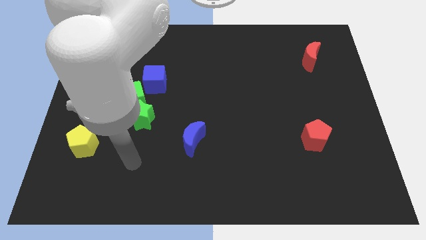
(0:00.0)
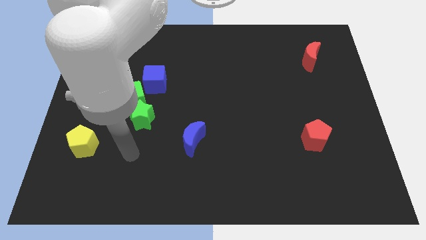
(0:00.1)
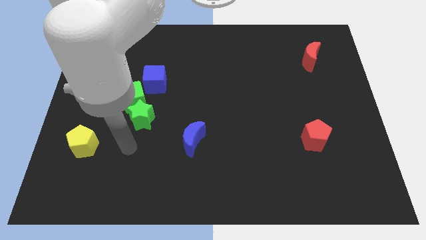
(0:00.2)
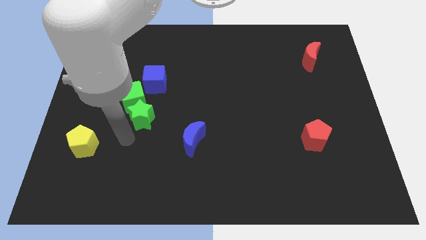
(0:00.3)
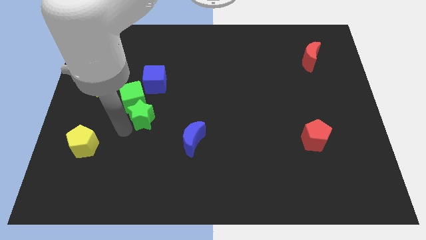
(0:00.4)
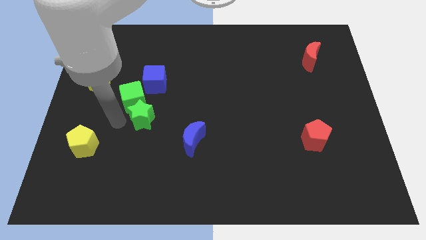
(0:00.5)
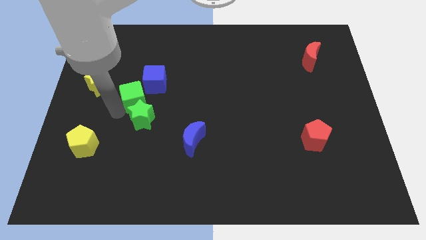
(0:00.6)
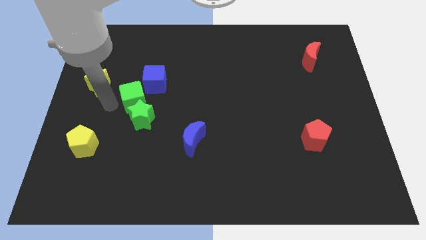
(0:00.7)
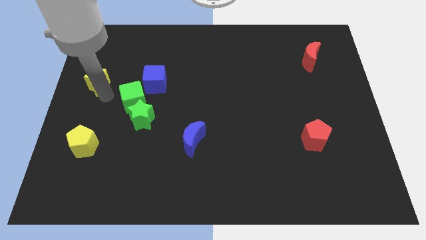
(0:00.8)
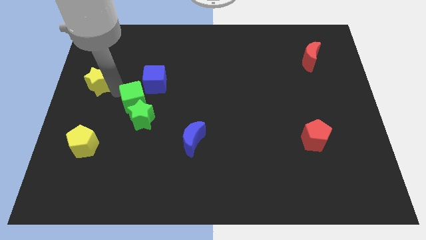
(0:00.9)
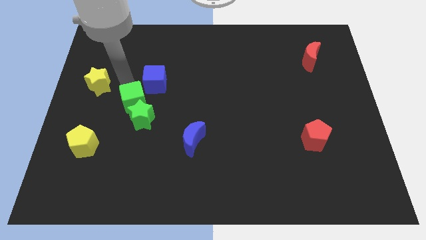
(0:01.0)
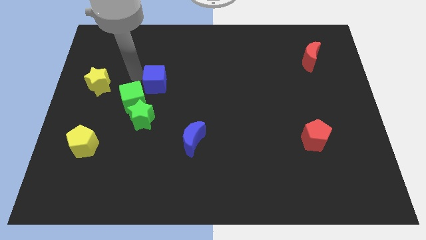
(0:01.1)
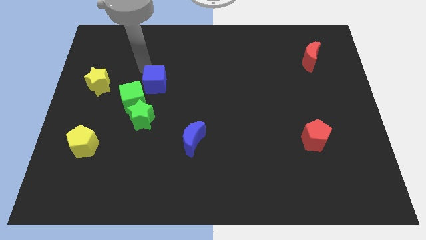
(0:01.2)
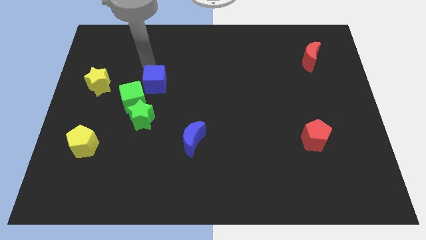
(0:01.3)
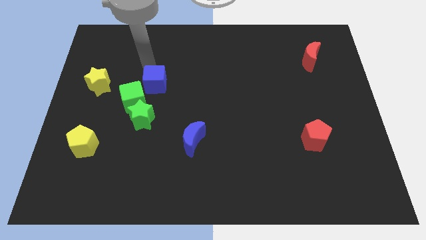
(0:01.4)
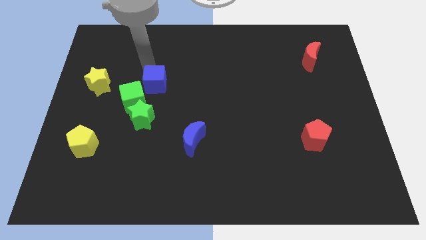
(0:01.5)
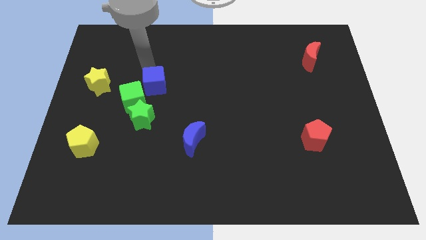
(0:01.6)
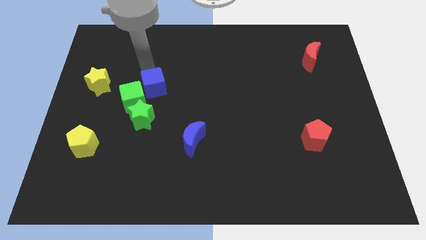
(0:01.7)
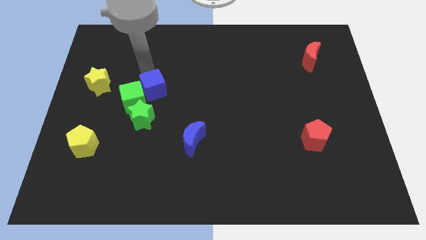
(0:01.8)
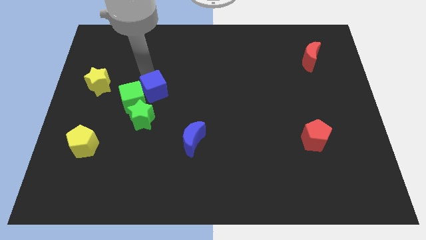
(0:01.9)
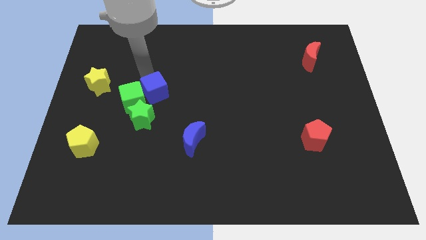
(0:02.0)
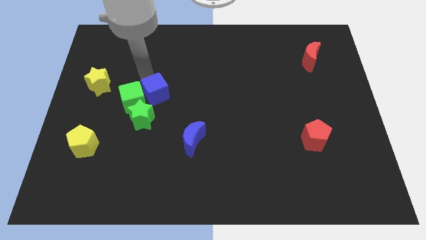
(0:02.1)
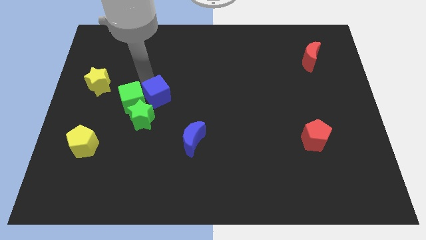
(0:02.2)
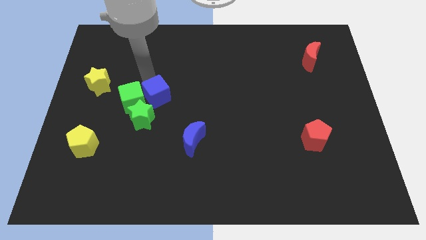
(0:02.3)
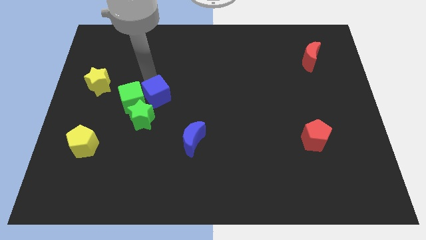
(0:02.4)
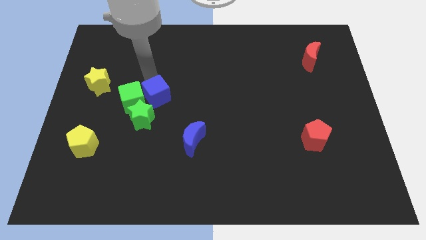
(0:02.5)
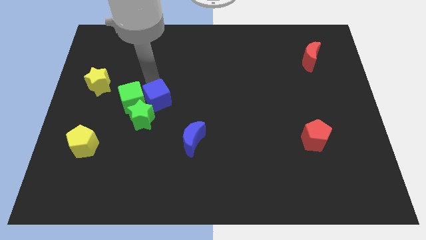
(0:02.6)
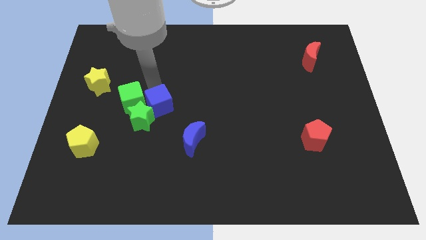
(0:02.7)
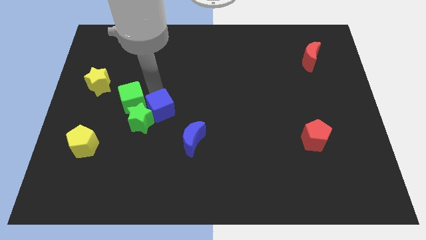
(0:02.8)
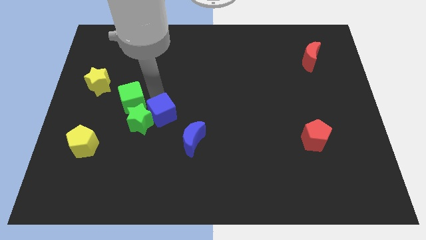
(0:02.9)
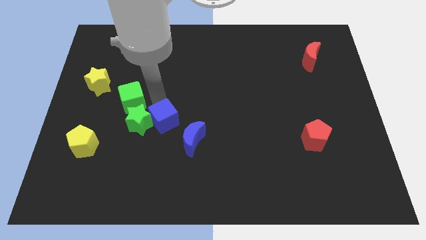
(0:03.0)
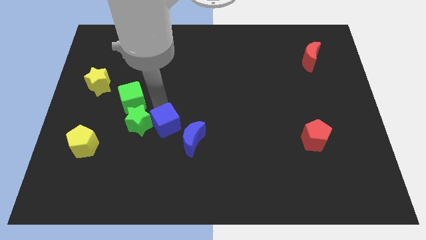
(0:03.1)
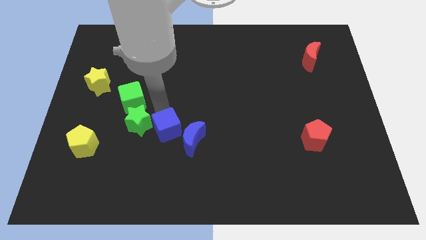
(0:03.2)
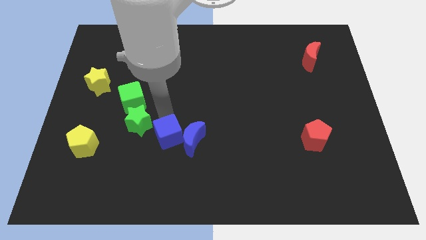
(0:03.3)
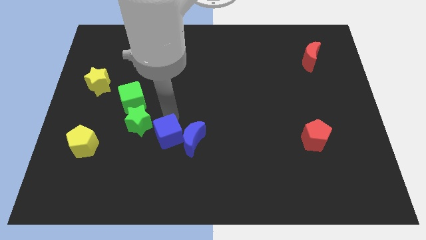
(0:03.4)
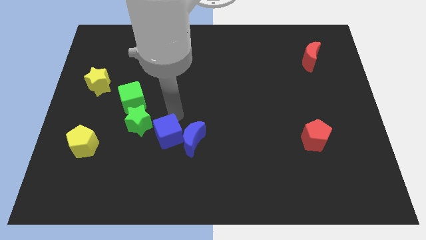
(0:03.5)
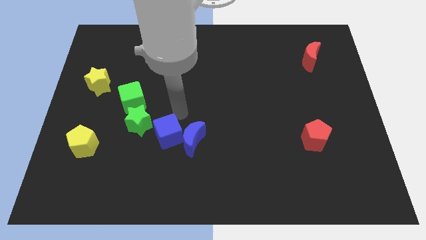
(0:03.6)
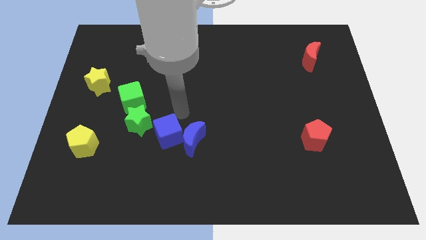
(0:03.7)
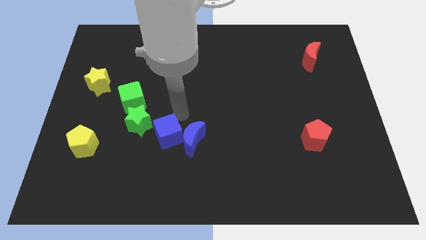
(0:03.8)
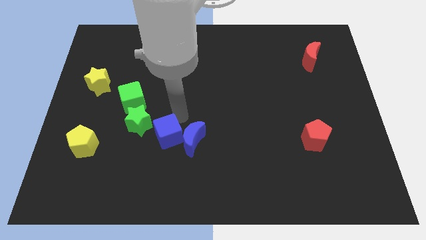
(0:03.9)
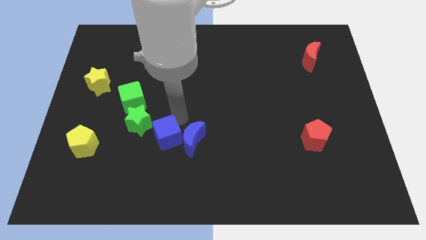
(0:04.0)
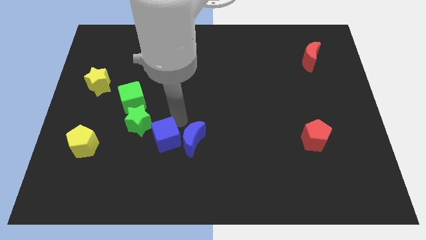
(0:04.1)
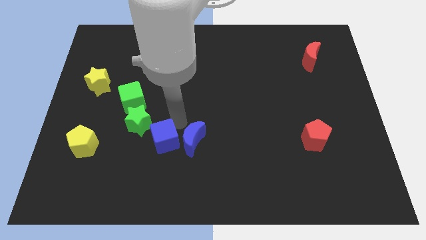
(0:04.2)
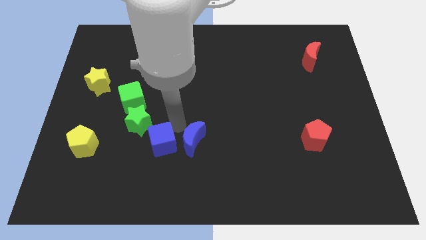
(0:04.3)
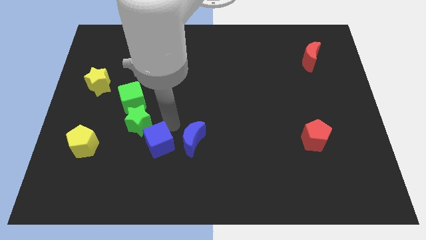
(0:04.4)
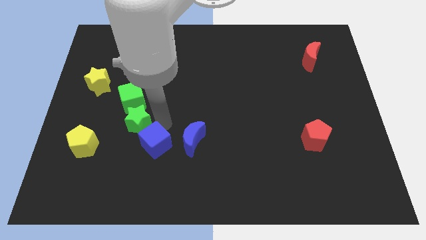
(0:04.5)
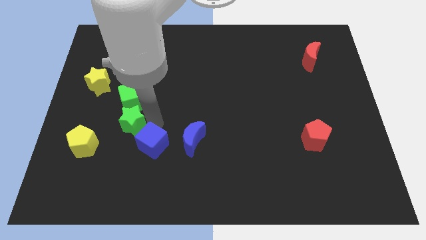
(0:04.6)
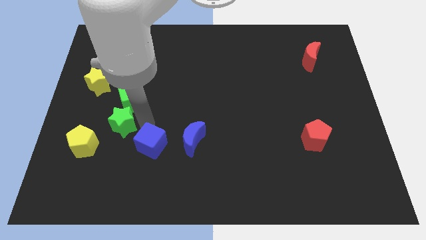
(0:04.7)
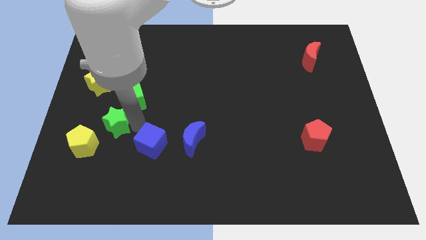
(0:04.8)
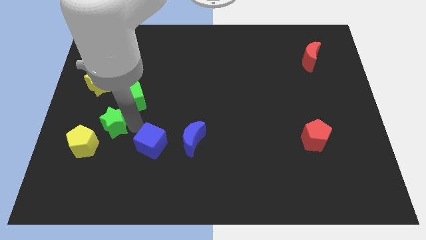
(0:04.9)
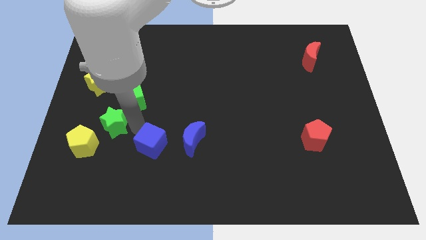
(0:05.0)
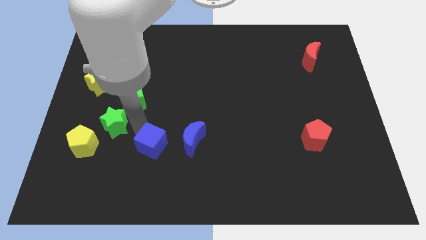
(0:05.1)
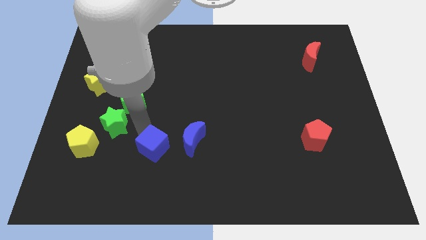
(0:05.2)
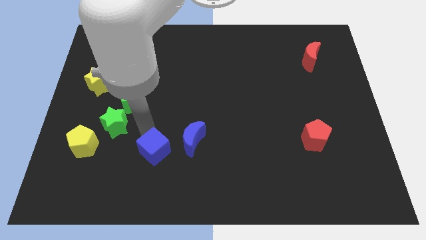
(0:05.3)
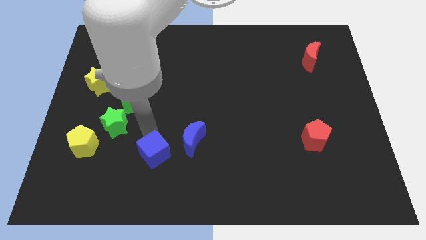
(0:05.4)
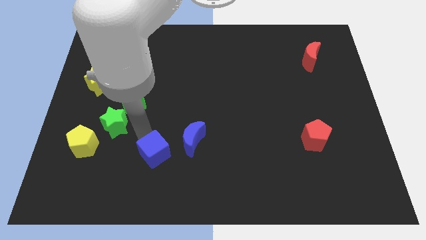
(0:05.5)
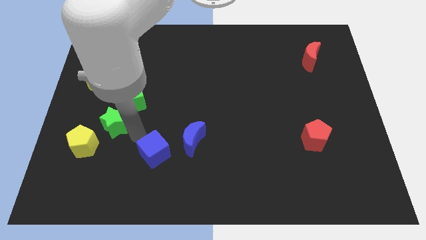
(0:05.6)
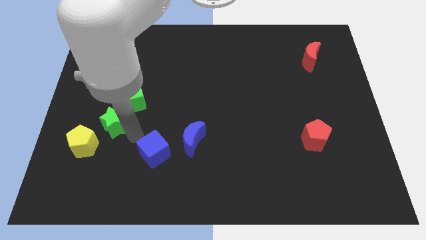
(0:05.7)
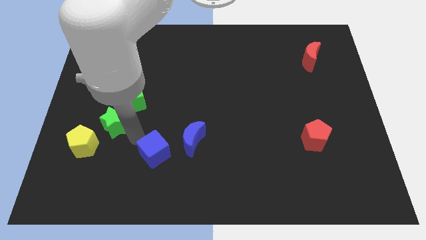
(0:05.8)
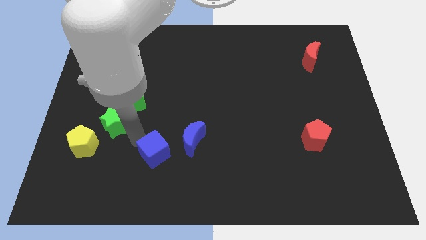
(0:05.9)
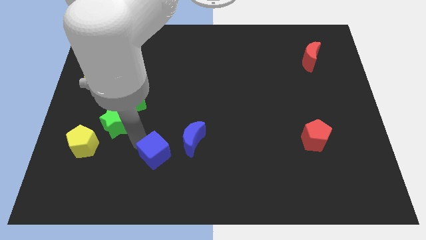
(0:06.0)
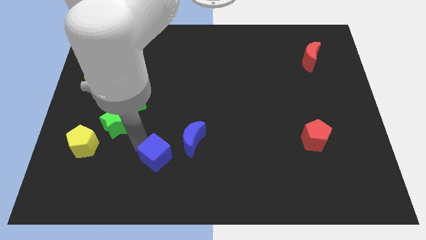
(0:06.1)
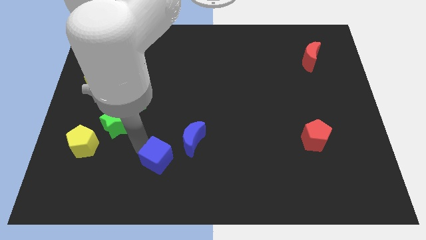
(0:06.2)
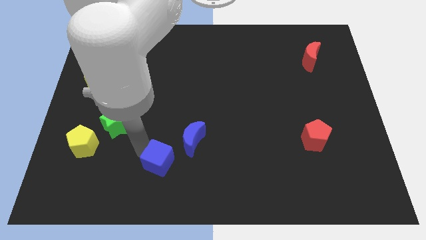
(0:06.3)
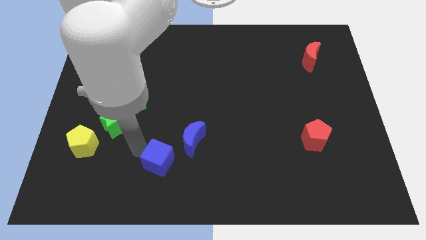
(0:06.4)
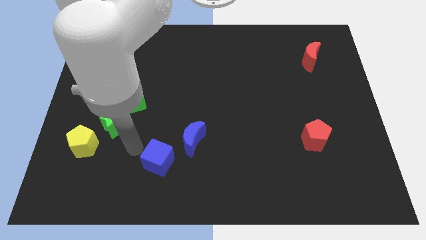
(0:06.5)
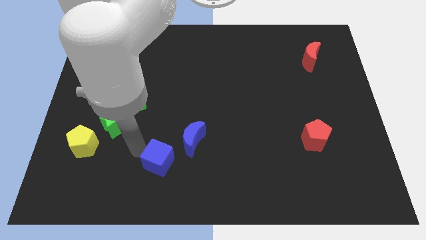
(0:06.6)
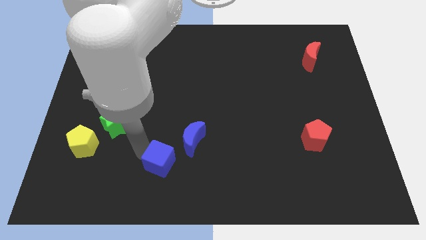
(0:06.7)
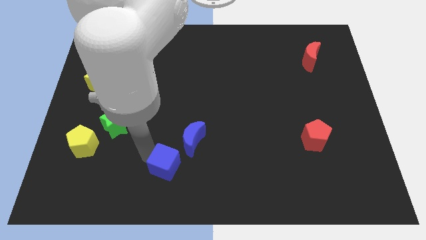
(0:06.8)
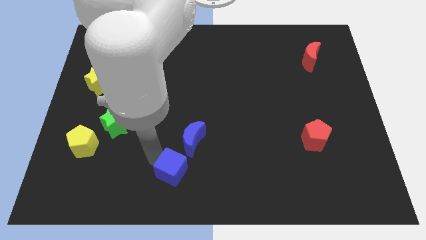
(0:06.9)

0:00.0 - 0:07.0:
put the blue cube to the bottom side

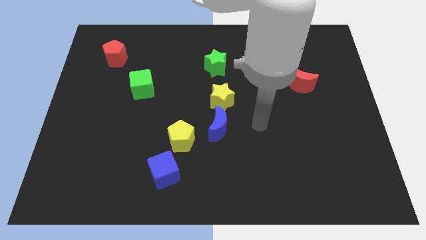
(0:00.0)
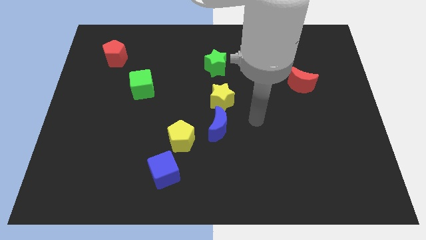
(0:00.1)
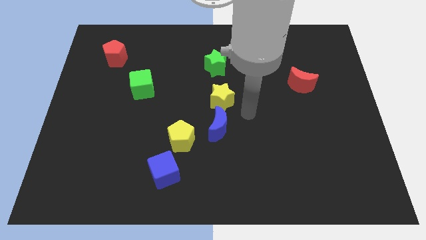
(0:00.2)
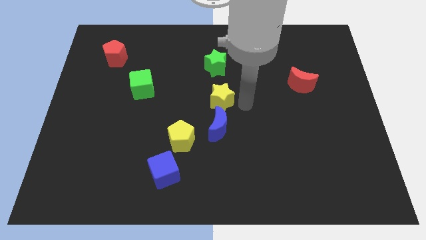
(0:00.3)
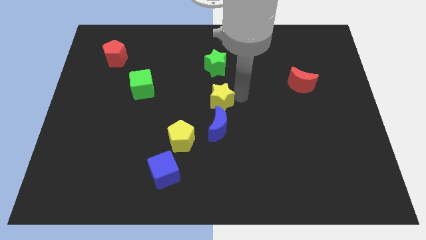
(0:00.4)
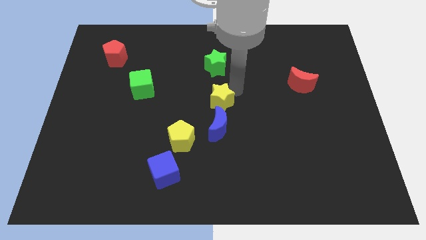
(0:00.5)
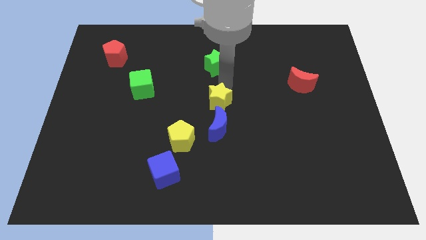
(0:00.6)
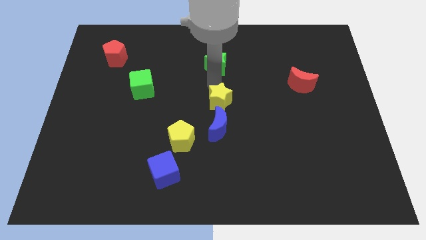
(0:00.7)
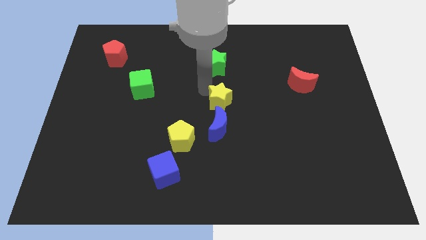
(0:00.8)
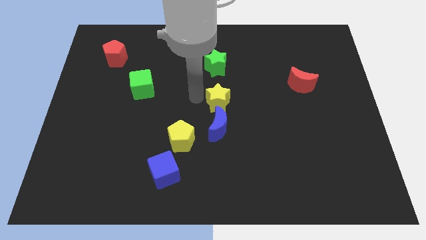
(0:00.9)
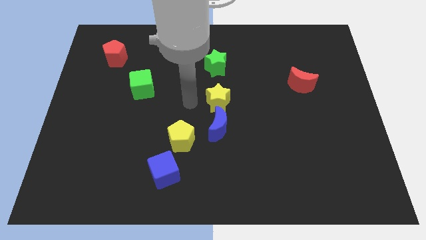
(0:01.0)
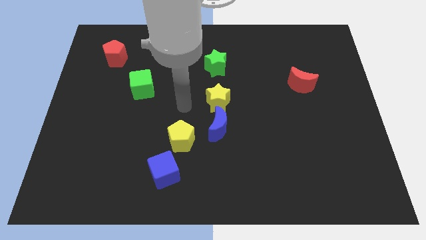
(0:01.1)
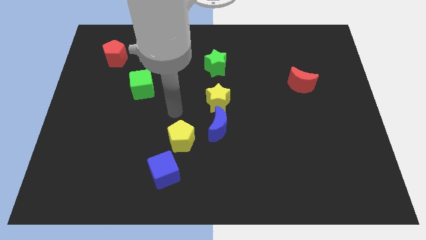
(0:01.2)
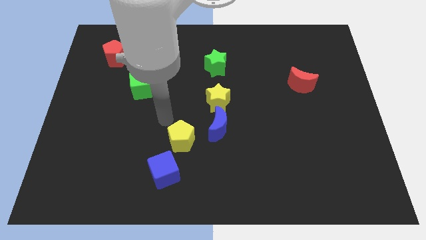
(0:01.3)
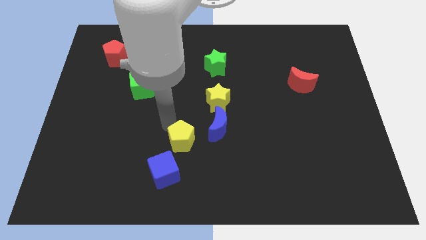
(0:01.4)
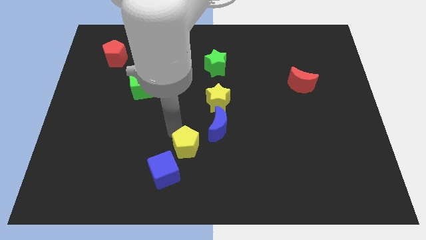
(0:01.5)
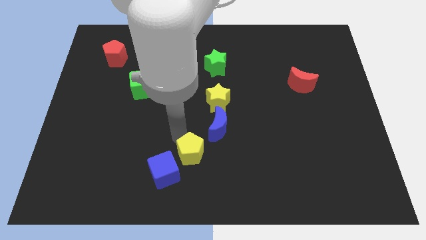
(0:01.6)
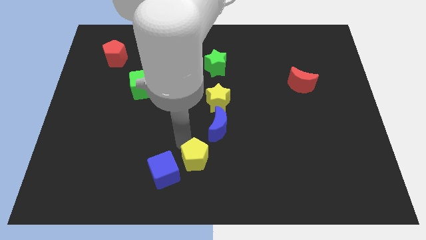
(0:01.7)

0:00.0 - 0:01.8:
push the yellow pentagon to the bottom side
